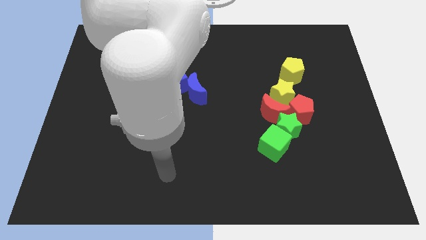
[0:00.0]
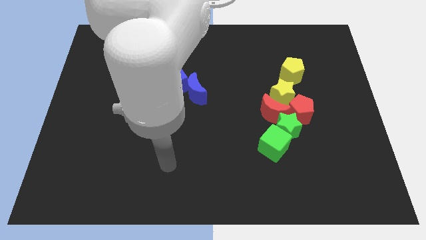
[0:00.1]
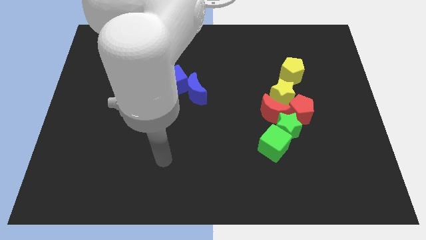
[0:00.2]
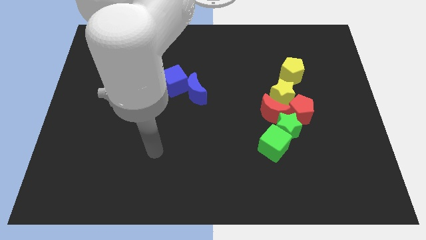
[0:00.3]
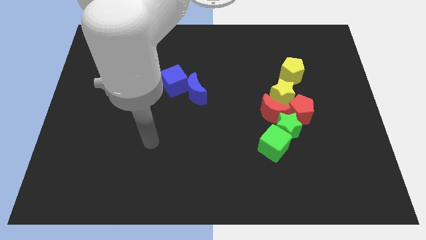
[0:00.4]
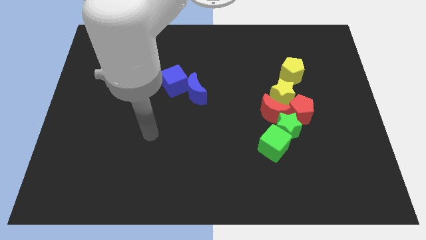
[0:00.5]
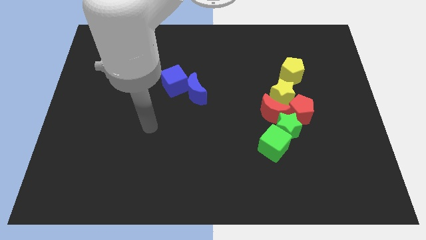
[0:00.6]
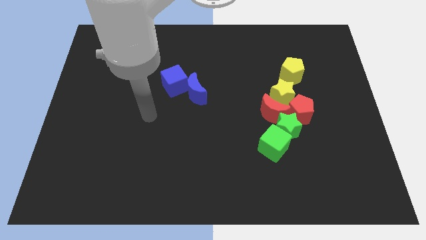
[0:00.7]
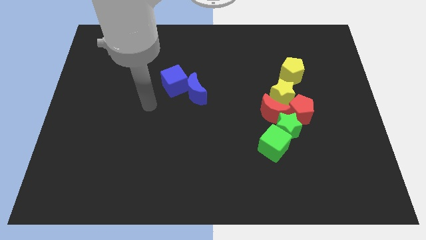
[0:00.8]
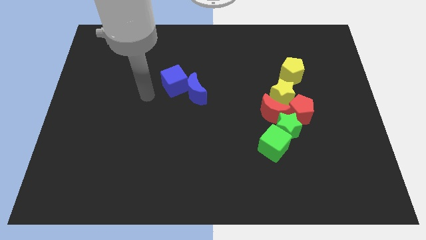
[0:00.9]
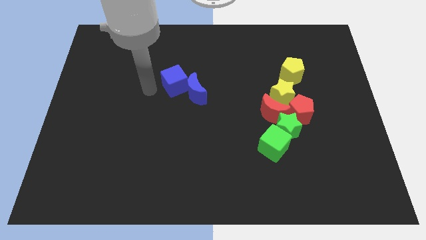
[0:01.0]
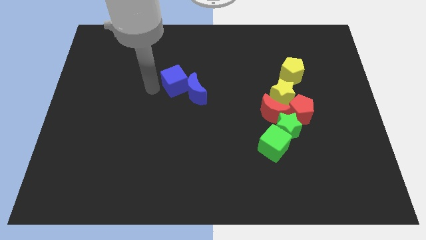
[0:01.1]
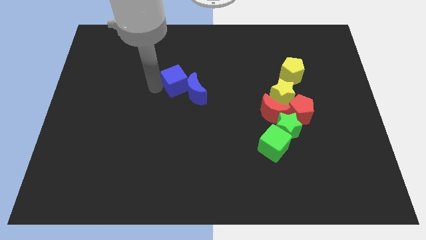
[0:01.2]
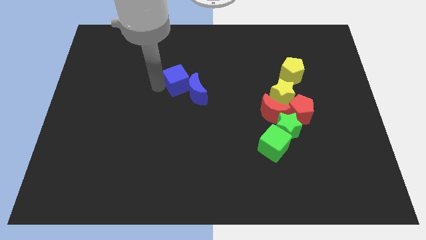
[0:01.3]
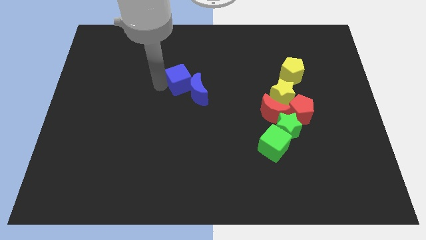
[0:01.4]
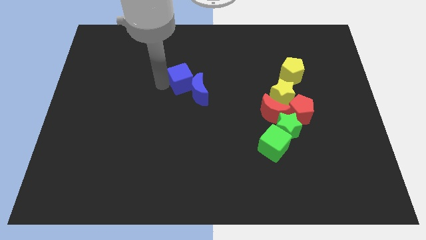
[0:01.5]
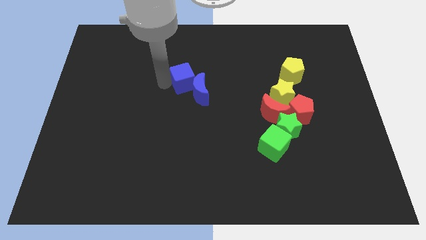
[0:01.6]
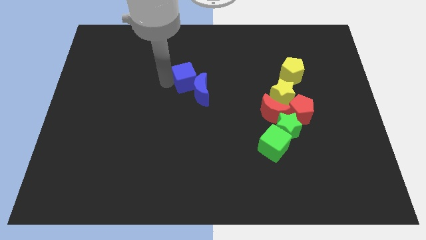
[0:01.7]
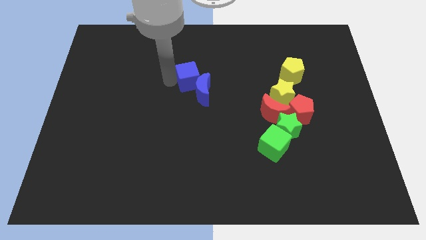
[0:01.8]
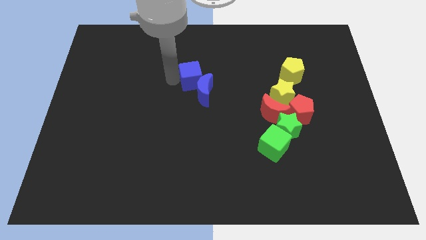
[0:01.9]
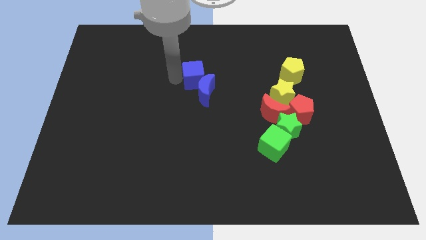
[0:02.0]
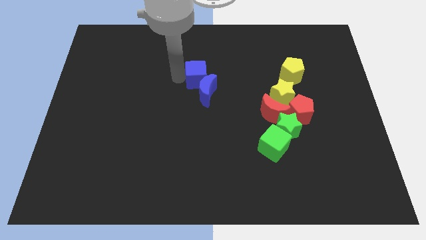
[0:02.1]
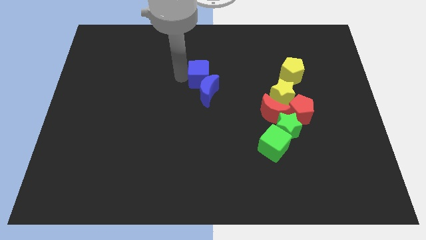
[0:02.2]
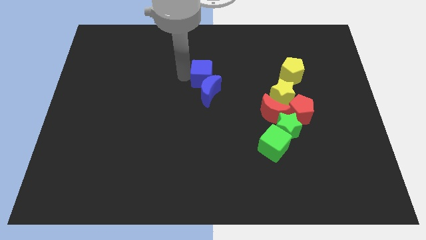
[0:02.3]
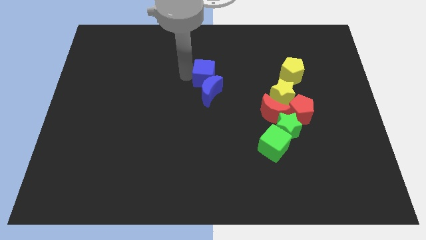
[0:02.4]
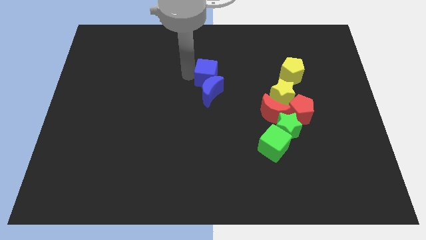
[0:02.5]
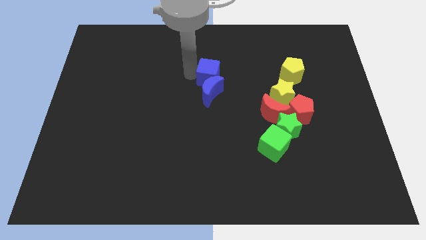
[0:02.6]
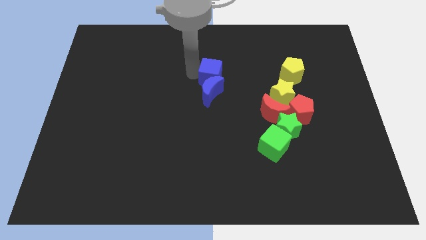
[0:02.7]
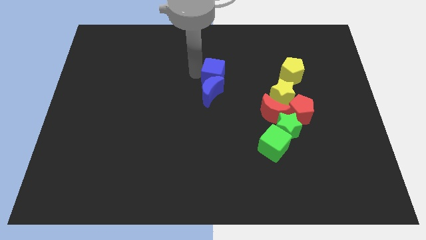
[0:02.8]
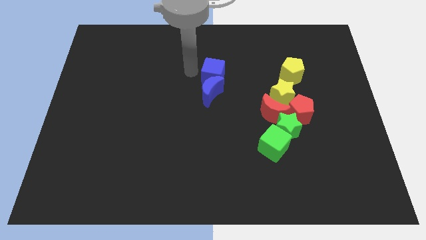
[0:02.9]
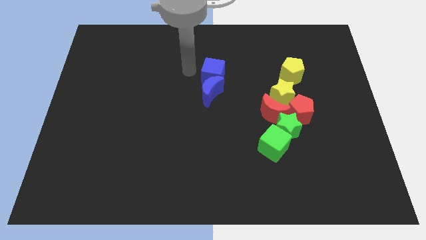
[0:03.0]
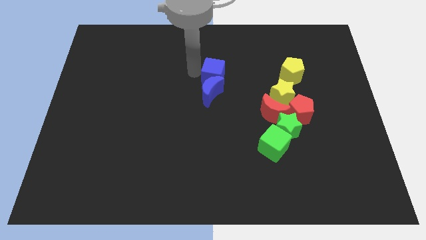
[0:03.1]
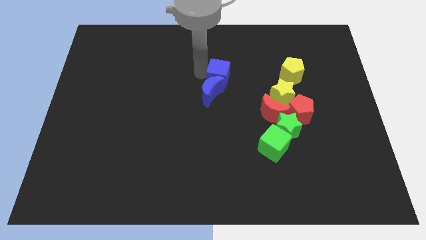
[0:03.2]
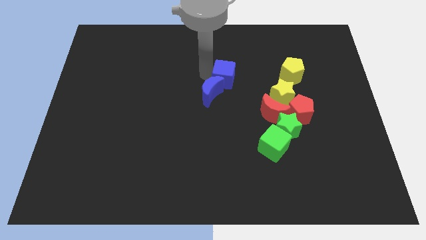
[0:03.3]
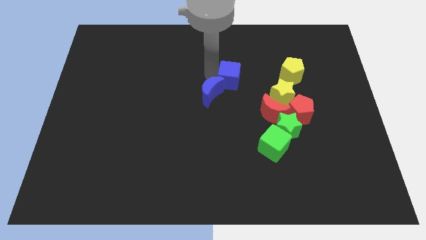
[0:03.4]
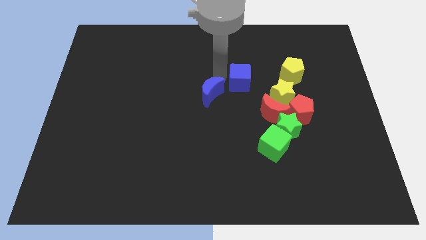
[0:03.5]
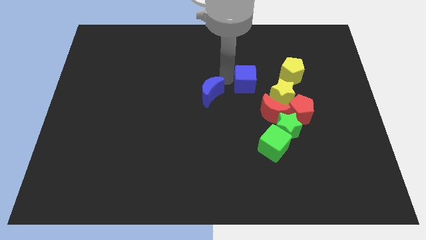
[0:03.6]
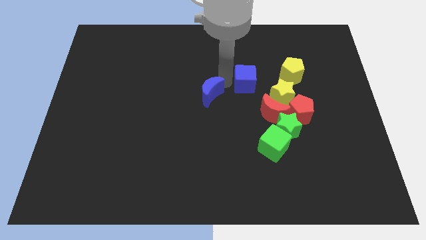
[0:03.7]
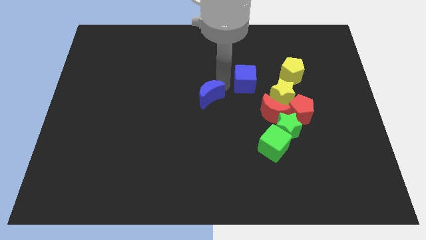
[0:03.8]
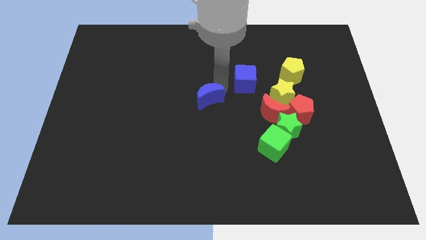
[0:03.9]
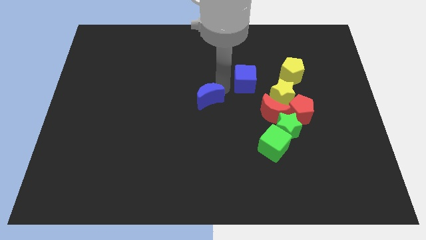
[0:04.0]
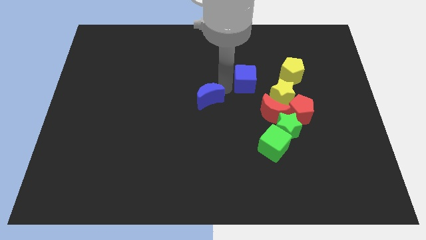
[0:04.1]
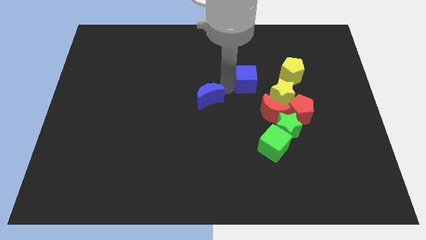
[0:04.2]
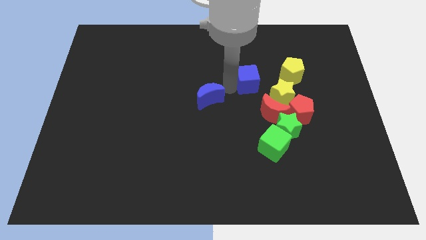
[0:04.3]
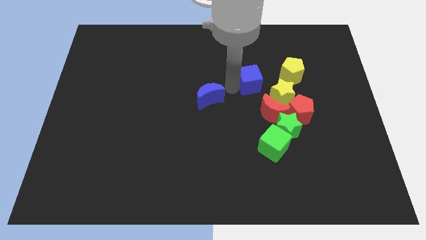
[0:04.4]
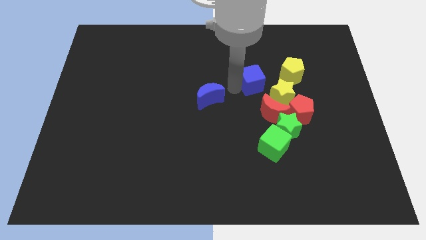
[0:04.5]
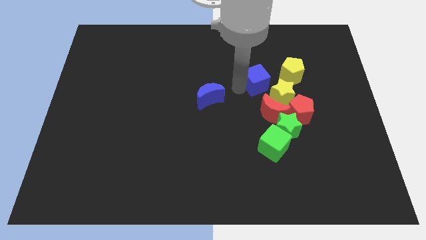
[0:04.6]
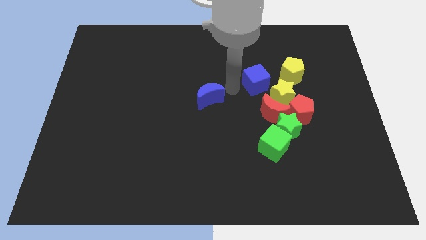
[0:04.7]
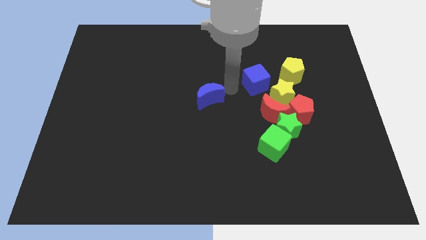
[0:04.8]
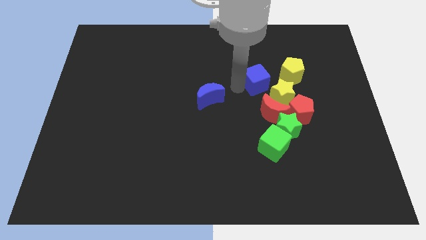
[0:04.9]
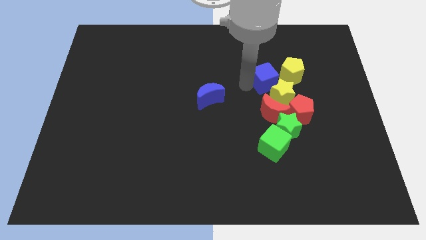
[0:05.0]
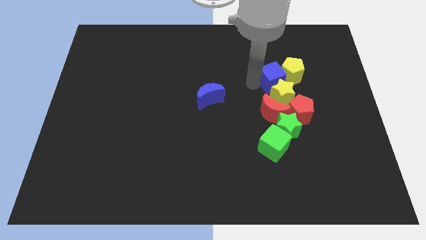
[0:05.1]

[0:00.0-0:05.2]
slide the blue cube close to the yellow pentagon

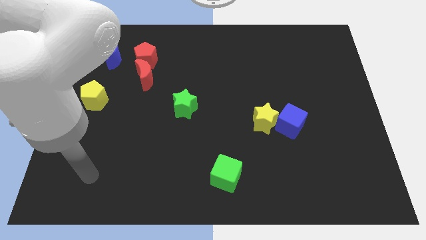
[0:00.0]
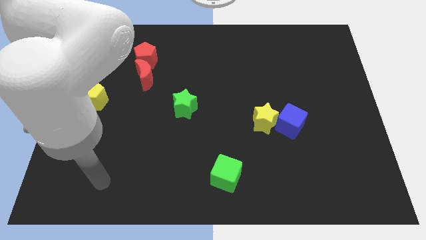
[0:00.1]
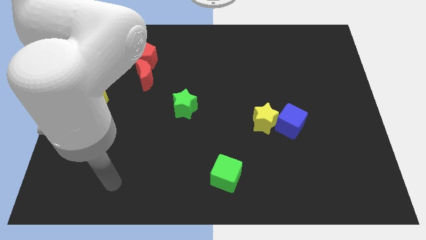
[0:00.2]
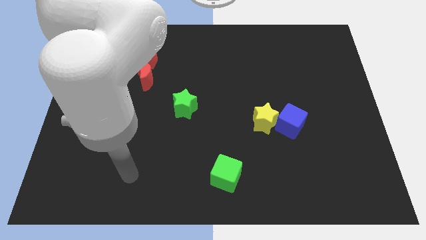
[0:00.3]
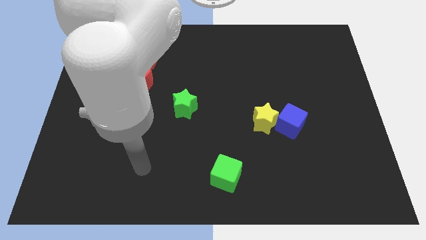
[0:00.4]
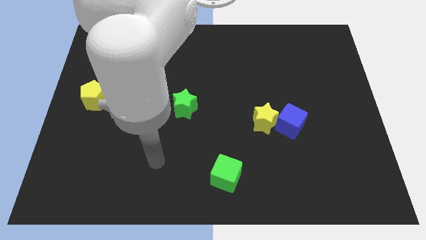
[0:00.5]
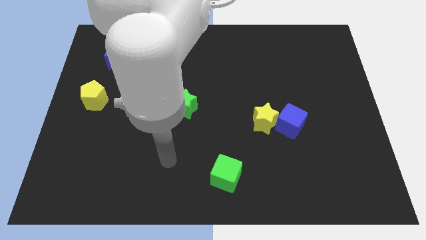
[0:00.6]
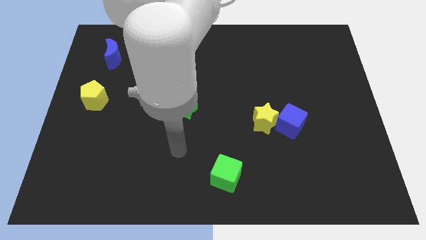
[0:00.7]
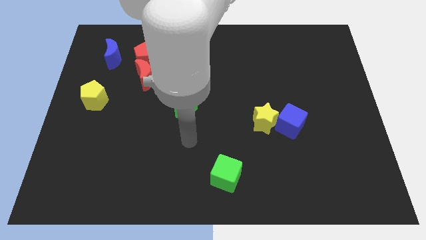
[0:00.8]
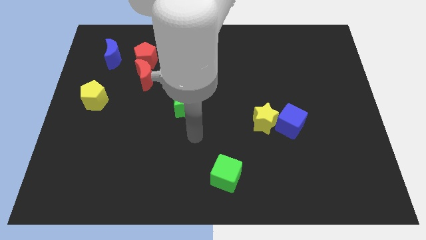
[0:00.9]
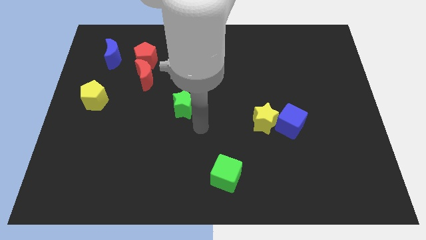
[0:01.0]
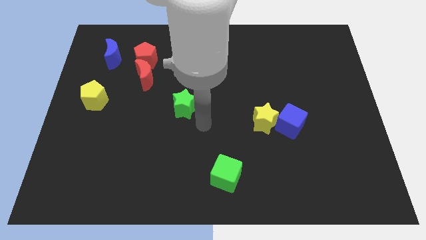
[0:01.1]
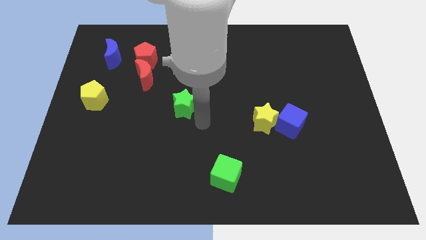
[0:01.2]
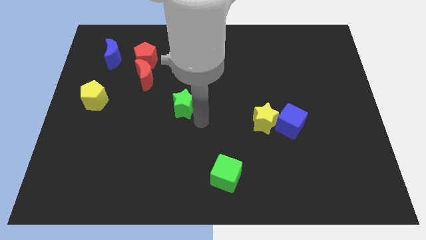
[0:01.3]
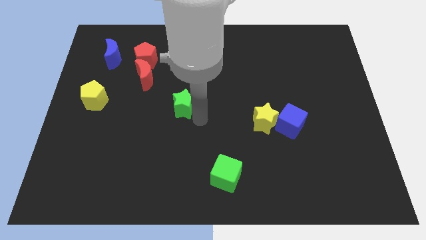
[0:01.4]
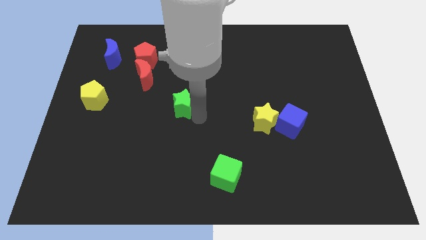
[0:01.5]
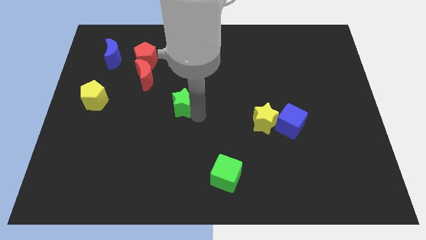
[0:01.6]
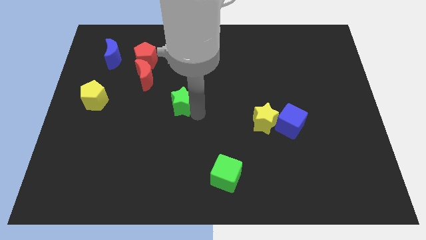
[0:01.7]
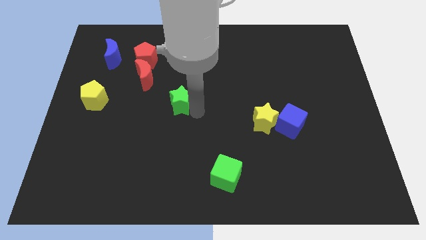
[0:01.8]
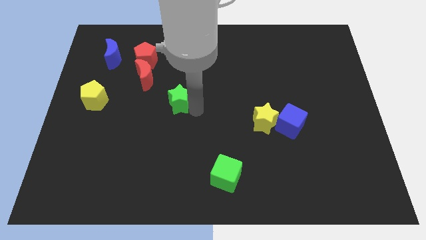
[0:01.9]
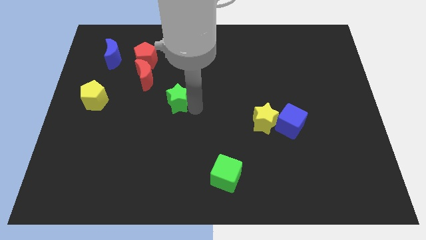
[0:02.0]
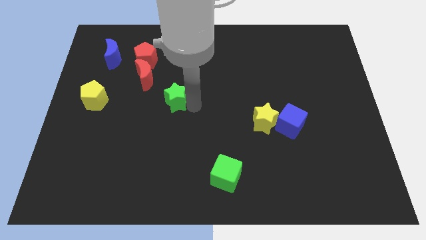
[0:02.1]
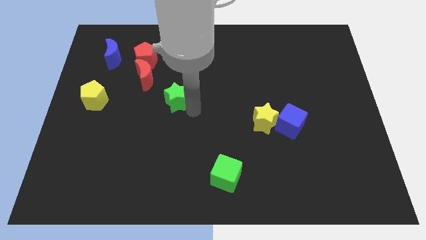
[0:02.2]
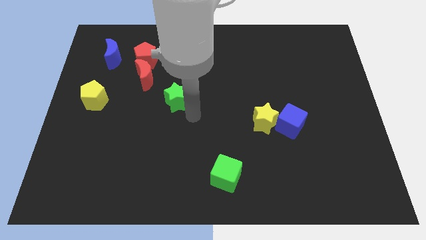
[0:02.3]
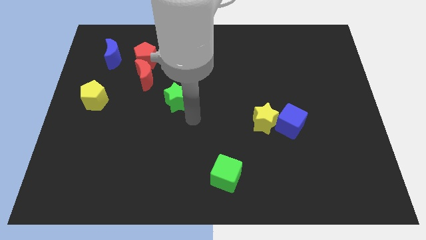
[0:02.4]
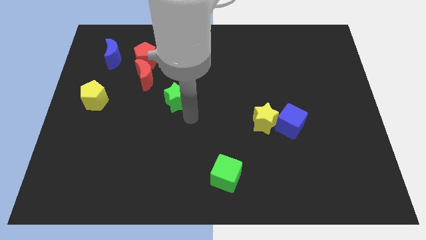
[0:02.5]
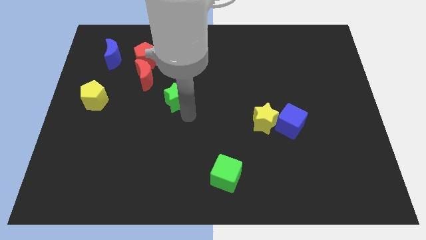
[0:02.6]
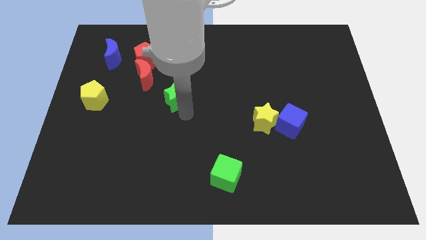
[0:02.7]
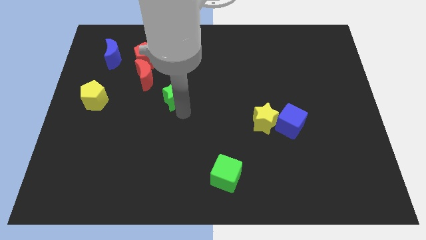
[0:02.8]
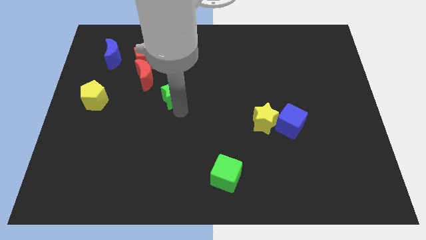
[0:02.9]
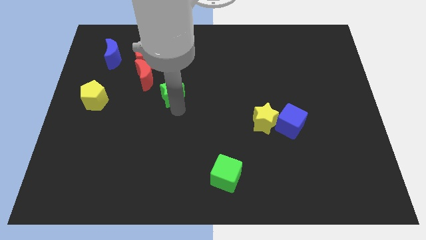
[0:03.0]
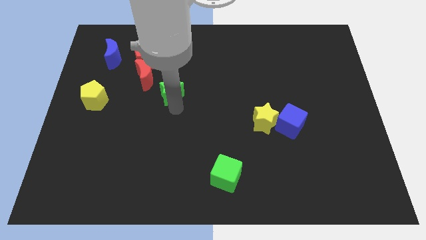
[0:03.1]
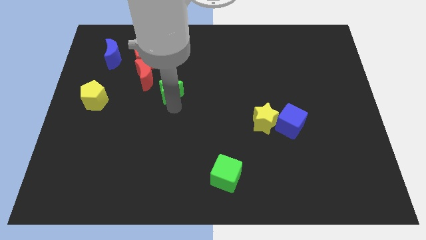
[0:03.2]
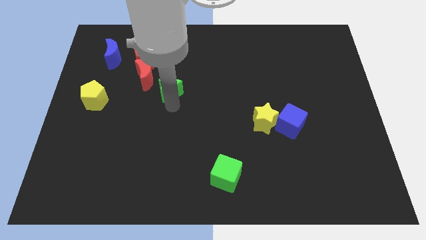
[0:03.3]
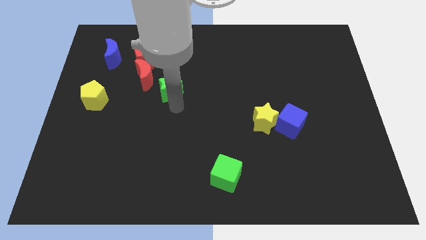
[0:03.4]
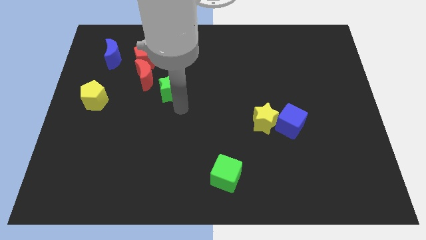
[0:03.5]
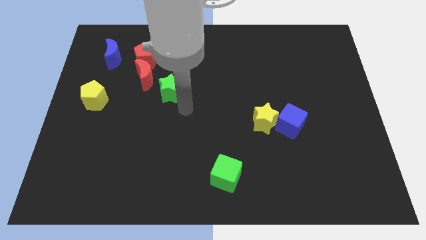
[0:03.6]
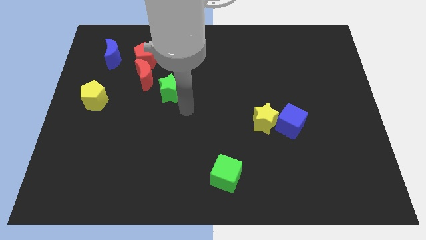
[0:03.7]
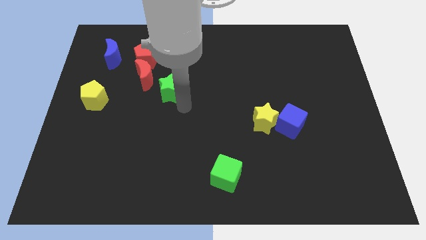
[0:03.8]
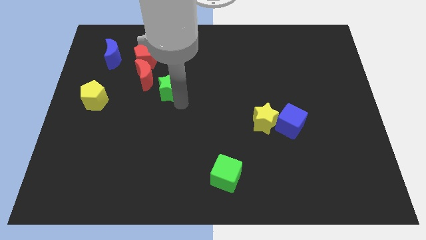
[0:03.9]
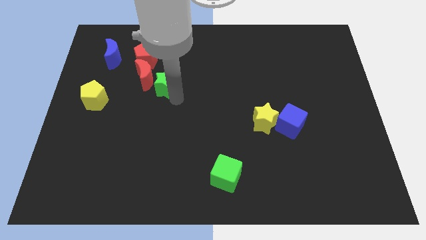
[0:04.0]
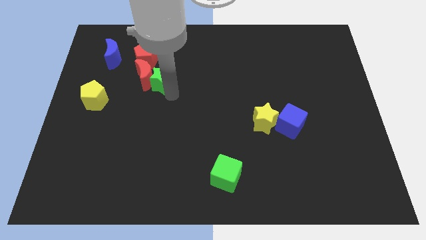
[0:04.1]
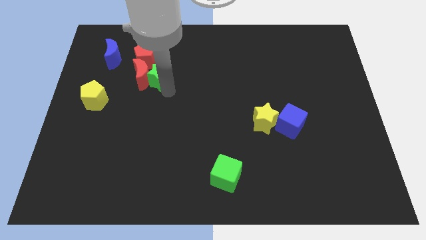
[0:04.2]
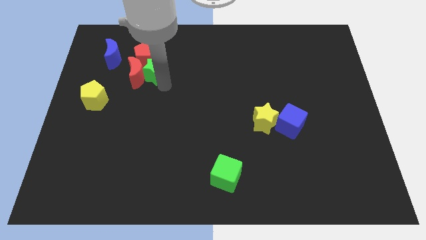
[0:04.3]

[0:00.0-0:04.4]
put the green star close to the red pentagon
